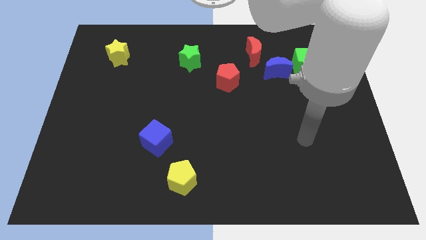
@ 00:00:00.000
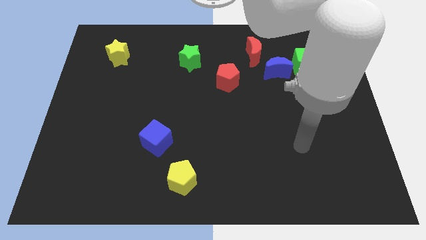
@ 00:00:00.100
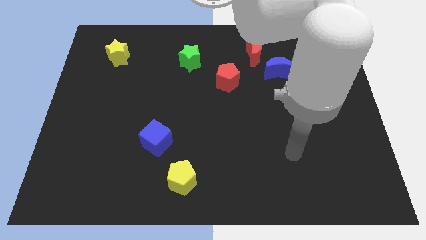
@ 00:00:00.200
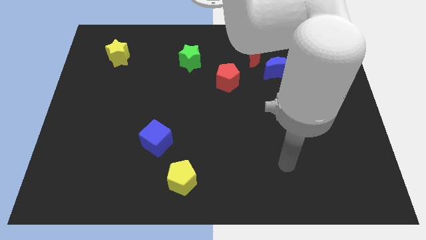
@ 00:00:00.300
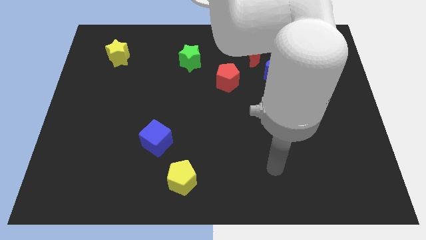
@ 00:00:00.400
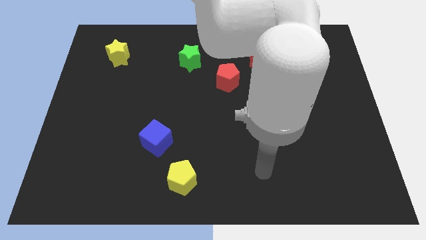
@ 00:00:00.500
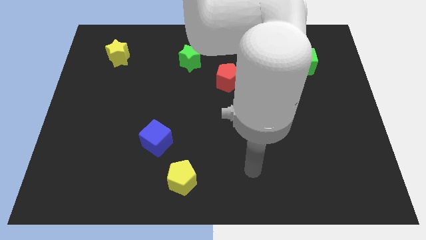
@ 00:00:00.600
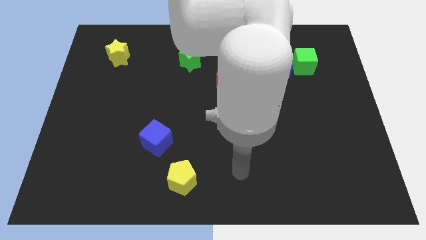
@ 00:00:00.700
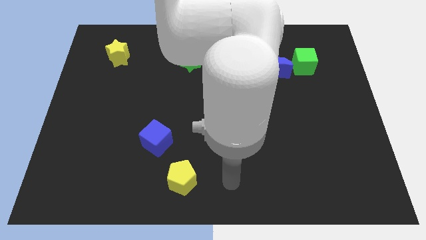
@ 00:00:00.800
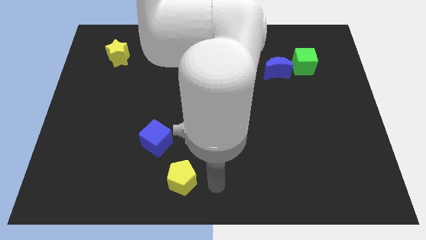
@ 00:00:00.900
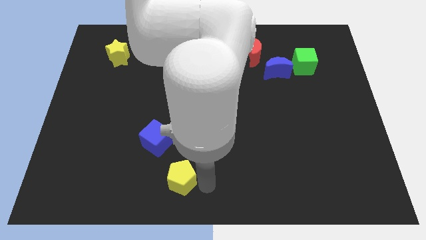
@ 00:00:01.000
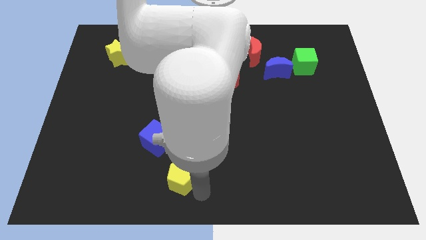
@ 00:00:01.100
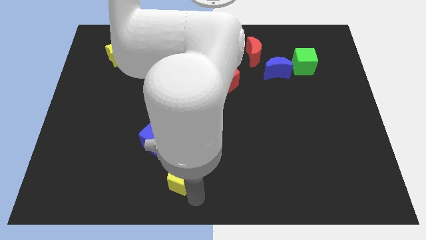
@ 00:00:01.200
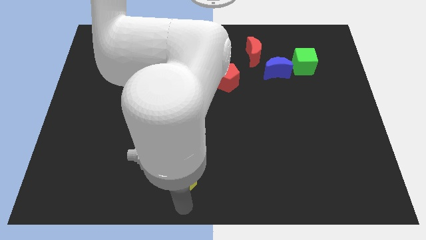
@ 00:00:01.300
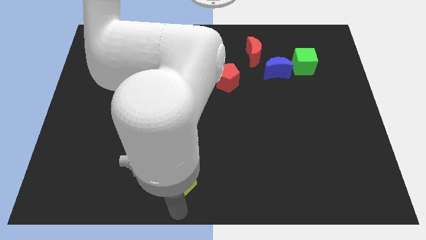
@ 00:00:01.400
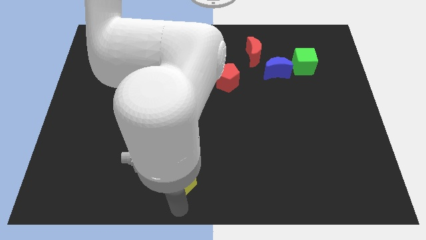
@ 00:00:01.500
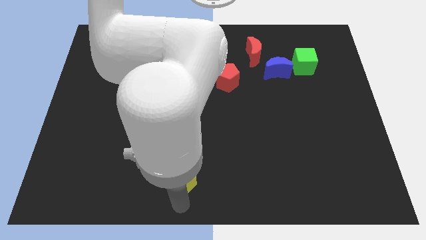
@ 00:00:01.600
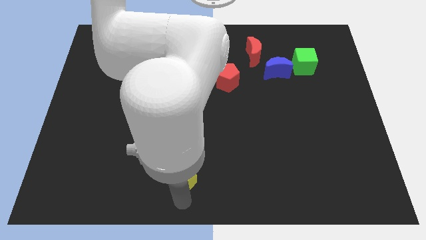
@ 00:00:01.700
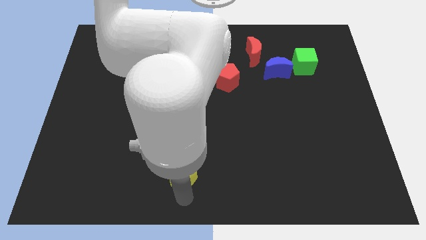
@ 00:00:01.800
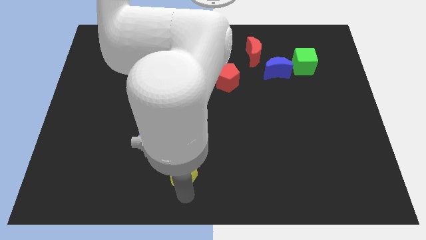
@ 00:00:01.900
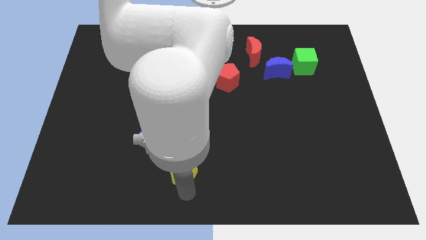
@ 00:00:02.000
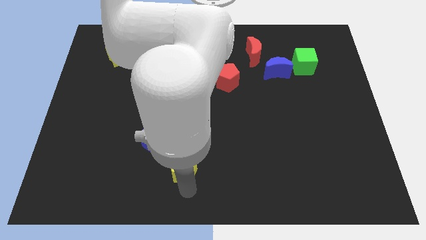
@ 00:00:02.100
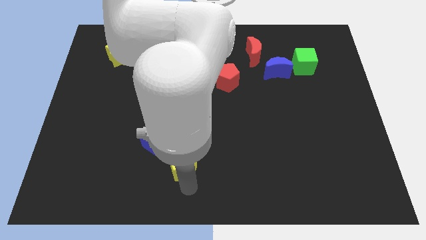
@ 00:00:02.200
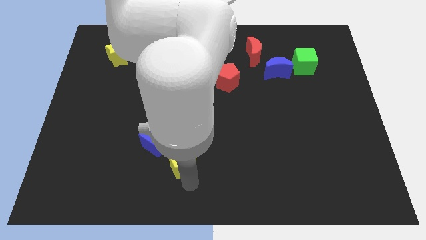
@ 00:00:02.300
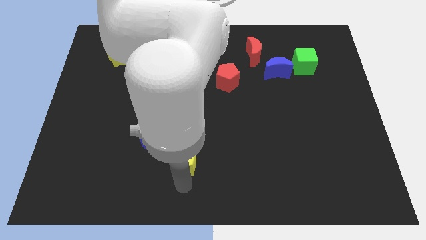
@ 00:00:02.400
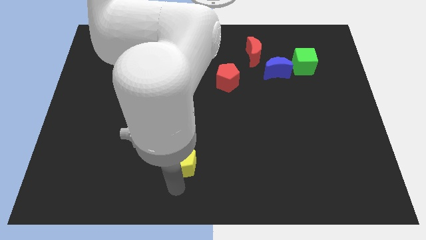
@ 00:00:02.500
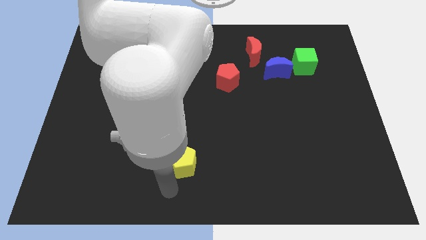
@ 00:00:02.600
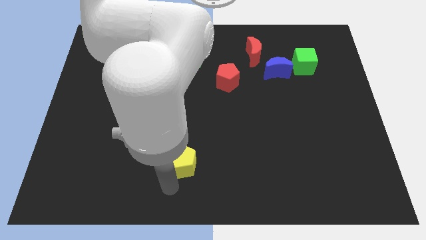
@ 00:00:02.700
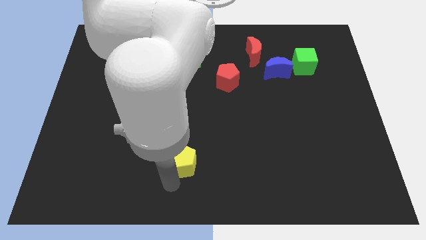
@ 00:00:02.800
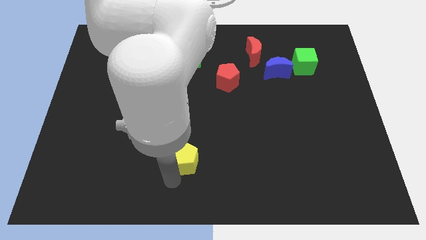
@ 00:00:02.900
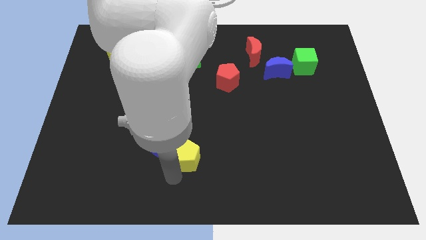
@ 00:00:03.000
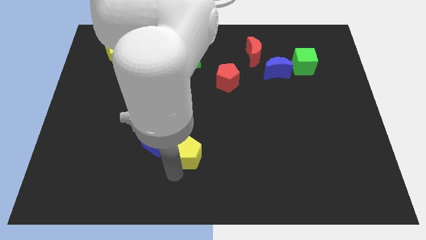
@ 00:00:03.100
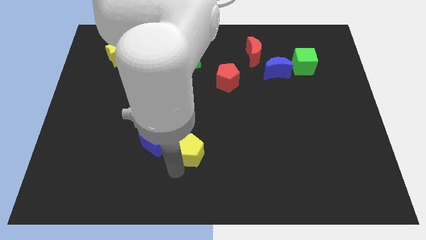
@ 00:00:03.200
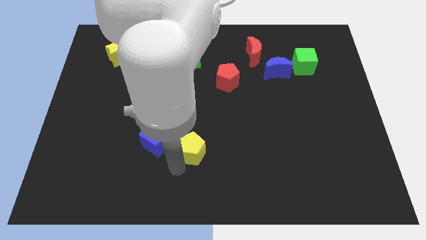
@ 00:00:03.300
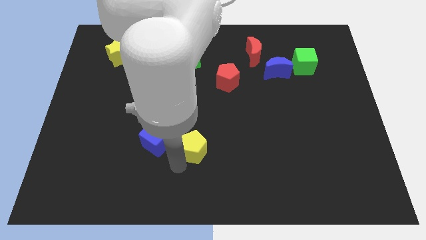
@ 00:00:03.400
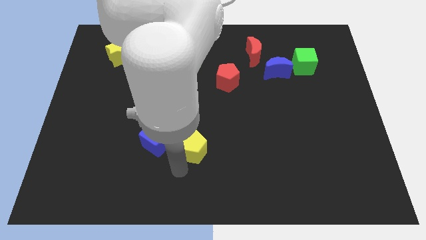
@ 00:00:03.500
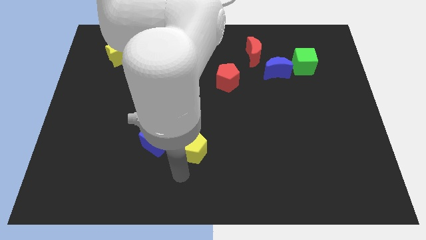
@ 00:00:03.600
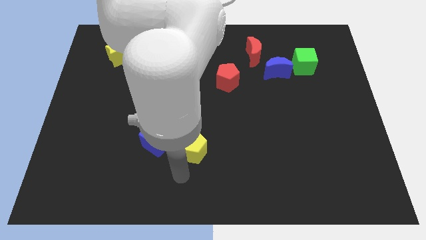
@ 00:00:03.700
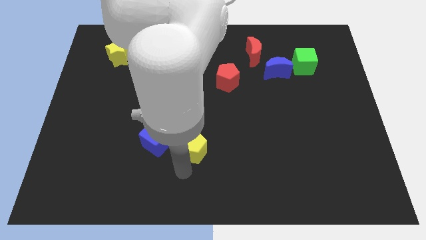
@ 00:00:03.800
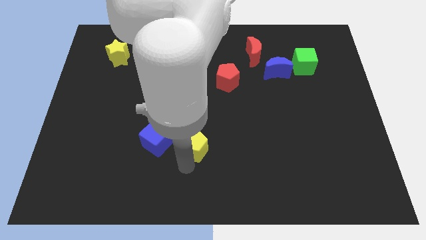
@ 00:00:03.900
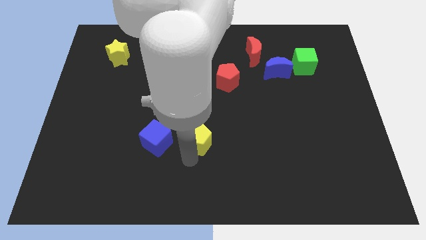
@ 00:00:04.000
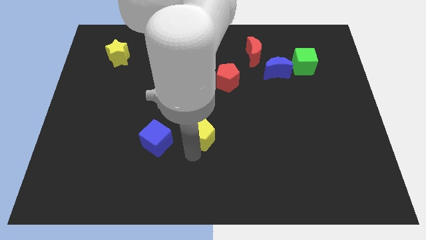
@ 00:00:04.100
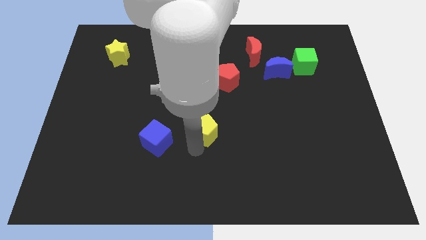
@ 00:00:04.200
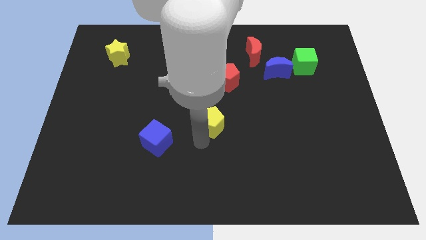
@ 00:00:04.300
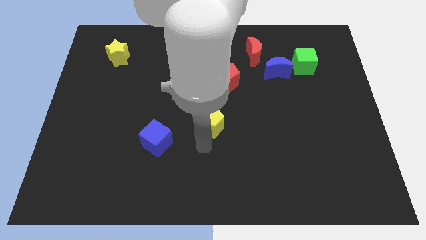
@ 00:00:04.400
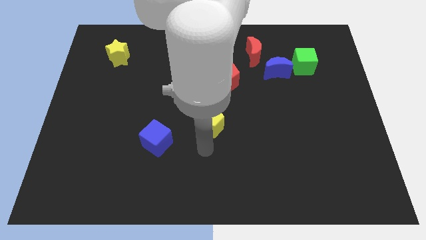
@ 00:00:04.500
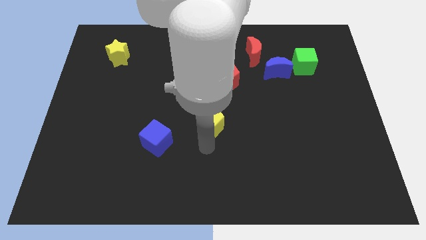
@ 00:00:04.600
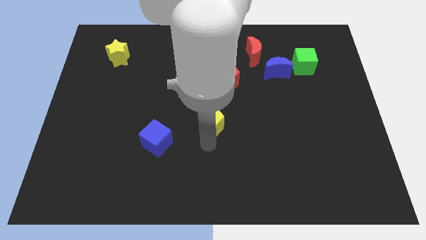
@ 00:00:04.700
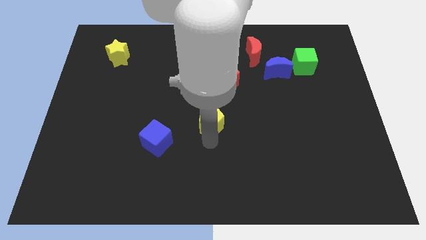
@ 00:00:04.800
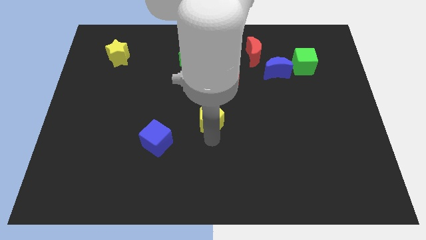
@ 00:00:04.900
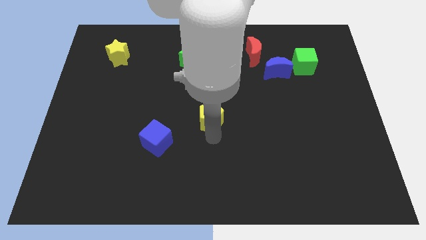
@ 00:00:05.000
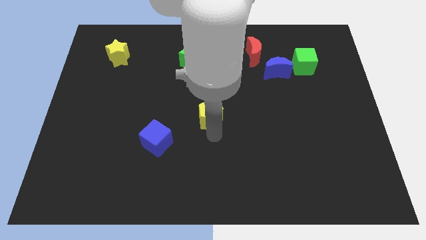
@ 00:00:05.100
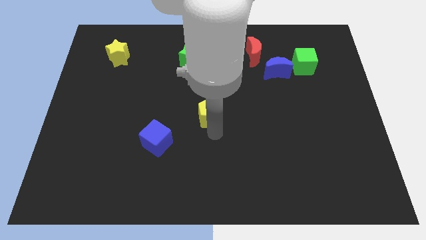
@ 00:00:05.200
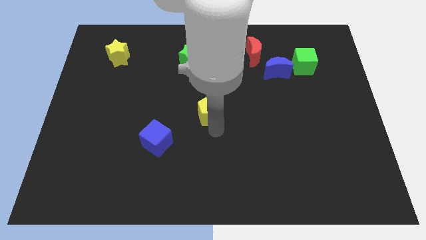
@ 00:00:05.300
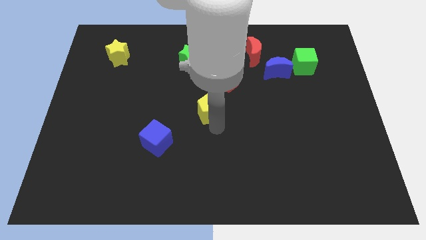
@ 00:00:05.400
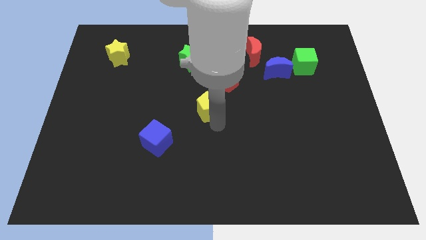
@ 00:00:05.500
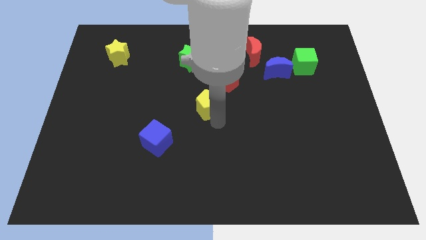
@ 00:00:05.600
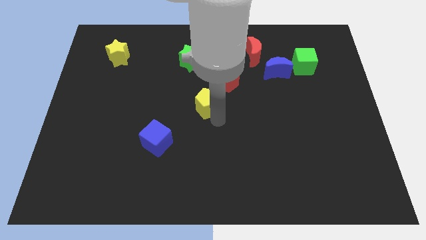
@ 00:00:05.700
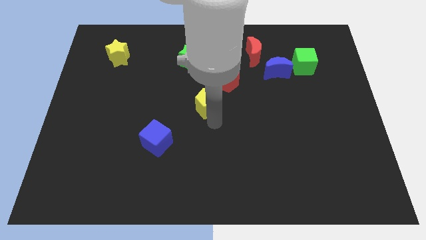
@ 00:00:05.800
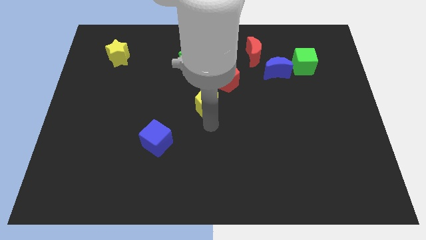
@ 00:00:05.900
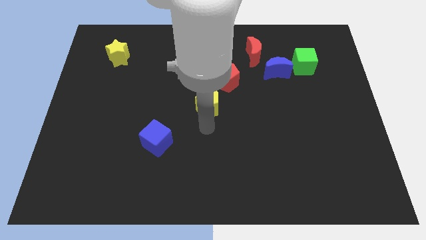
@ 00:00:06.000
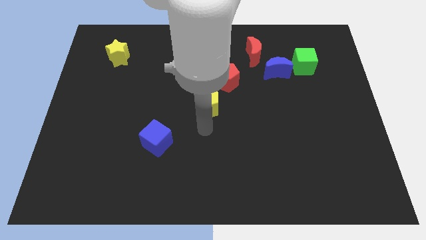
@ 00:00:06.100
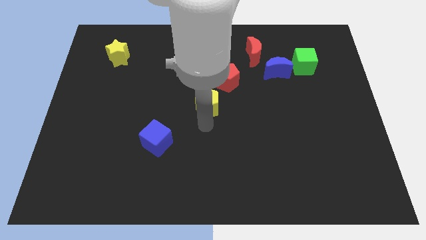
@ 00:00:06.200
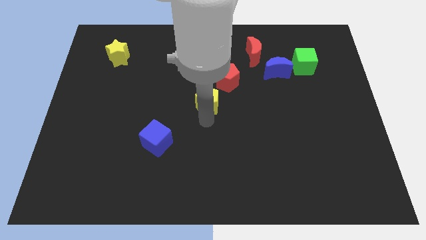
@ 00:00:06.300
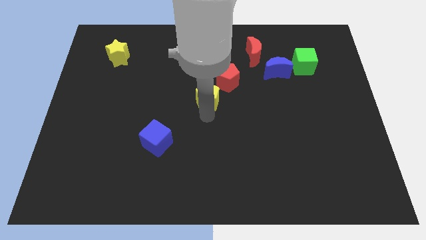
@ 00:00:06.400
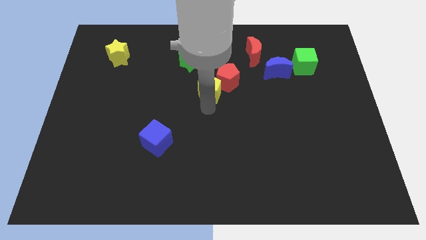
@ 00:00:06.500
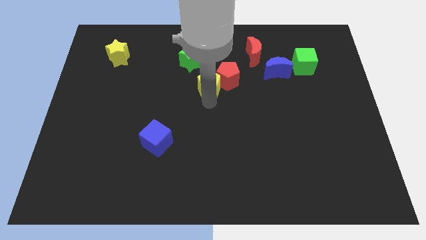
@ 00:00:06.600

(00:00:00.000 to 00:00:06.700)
push the yellow pentagon to the bottom right side of the green star
